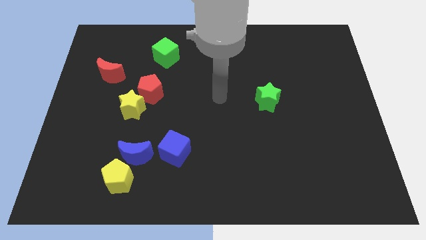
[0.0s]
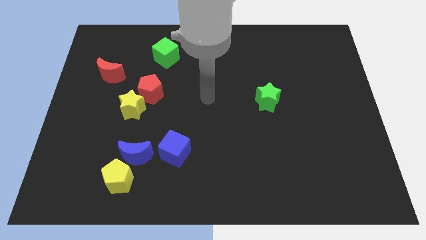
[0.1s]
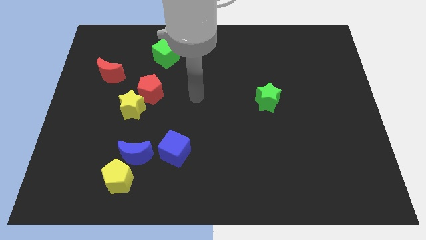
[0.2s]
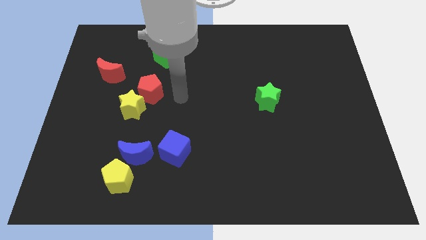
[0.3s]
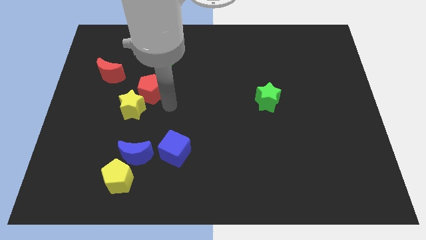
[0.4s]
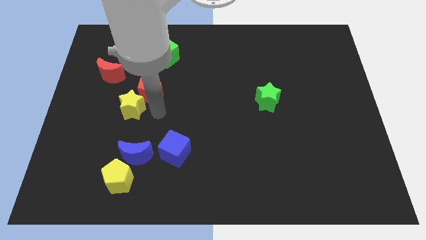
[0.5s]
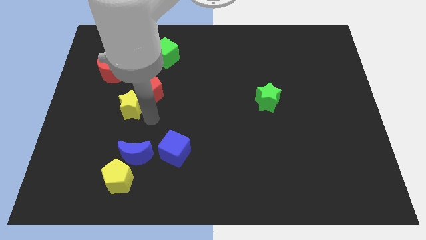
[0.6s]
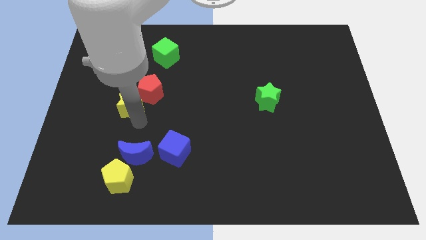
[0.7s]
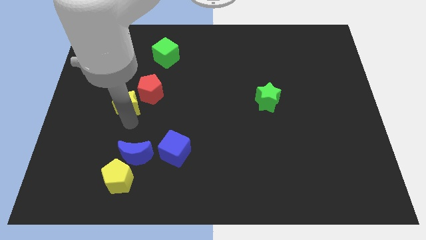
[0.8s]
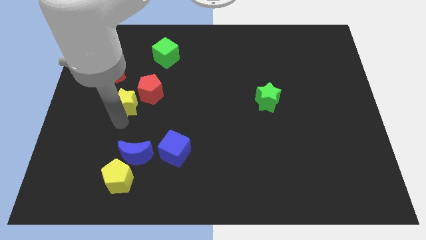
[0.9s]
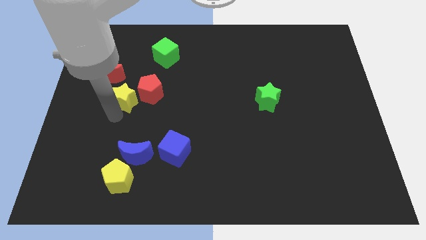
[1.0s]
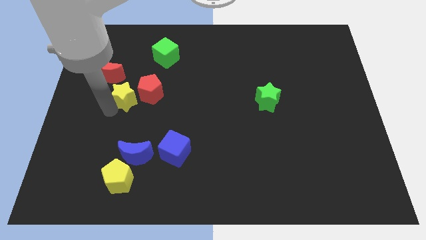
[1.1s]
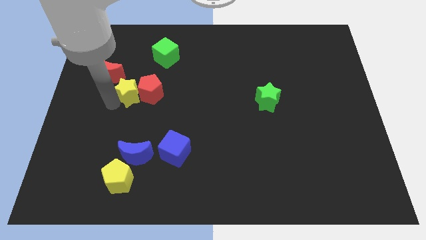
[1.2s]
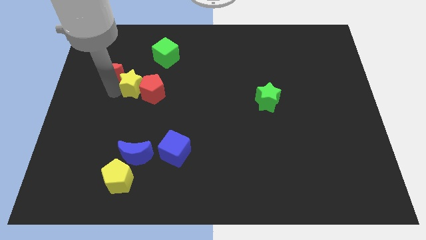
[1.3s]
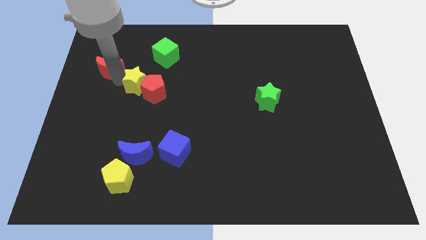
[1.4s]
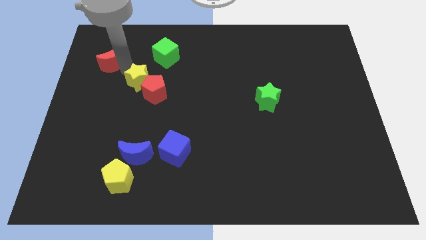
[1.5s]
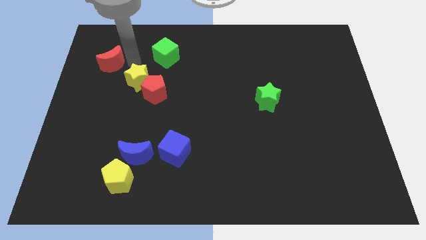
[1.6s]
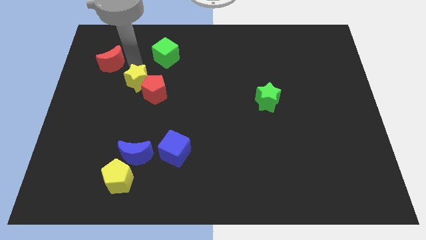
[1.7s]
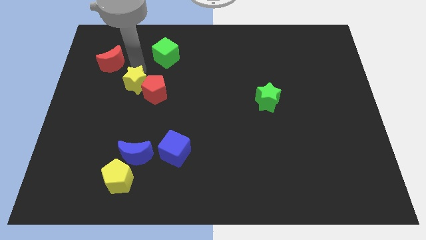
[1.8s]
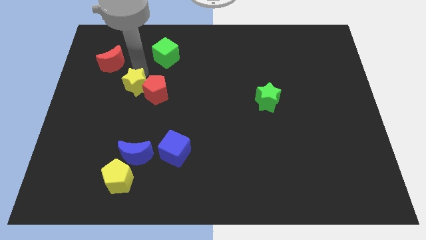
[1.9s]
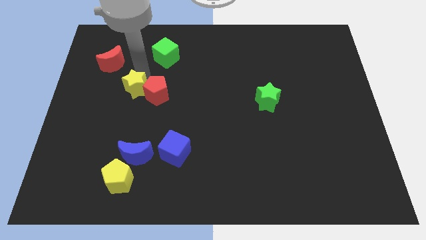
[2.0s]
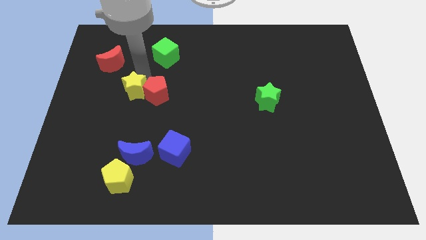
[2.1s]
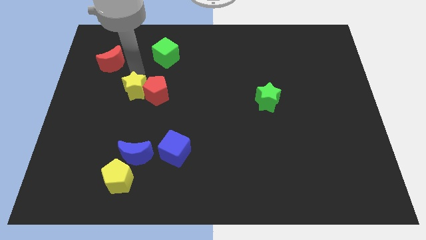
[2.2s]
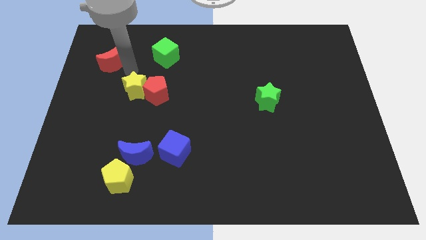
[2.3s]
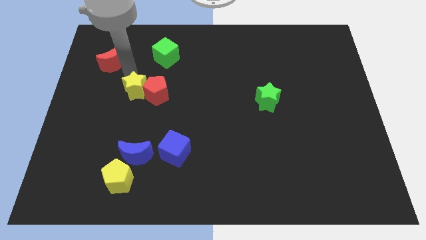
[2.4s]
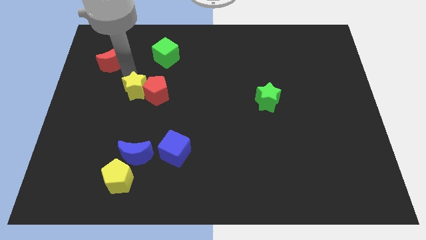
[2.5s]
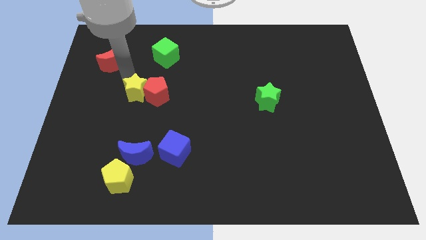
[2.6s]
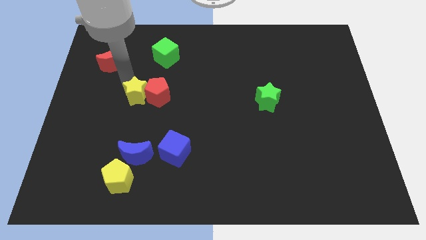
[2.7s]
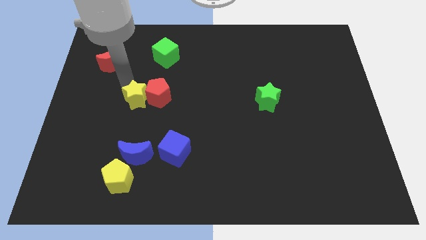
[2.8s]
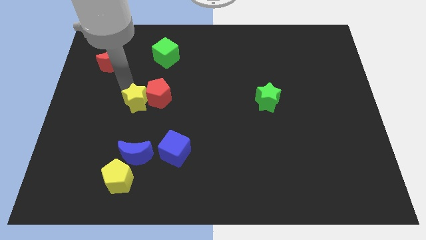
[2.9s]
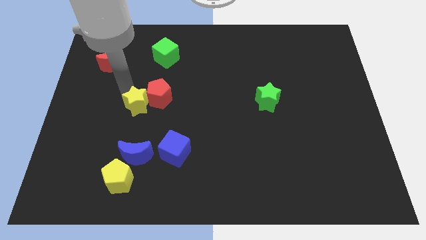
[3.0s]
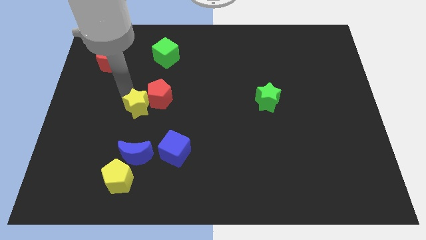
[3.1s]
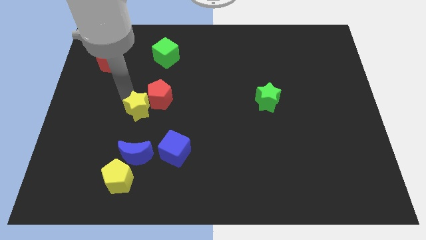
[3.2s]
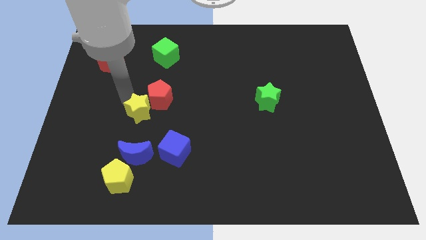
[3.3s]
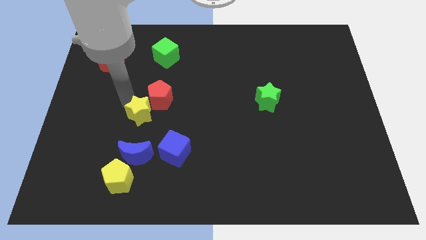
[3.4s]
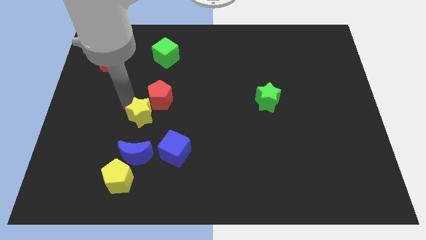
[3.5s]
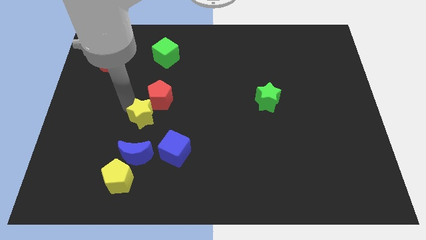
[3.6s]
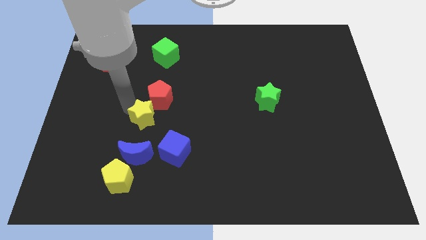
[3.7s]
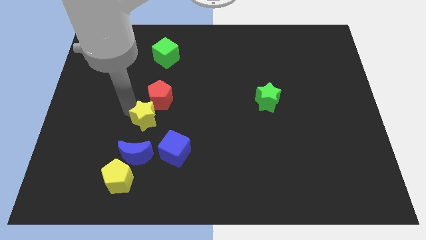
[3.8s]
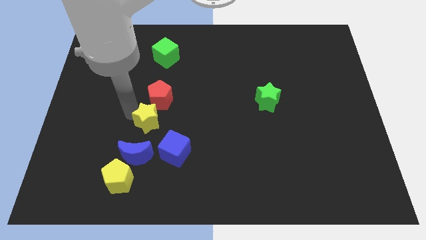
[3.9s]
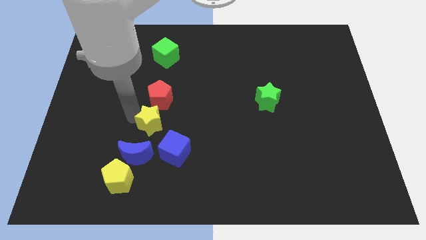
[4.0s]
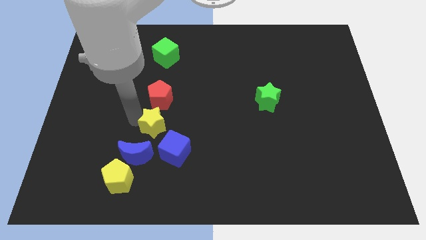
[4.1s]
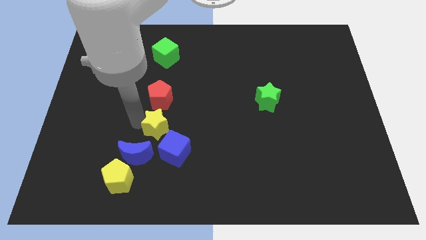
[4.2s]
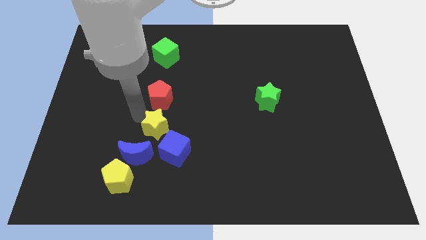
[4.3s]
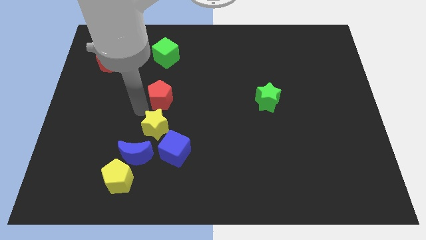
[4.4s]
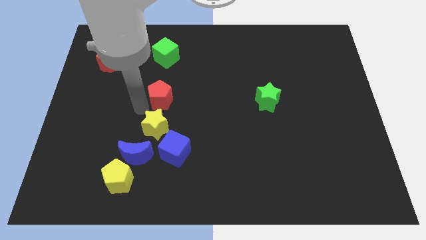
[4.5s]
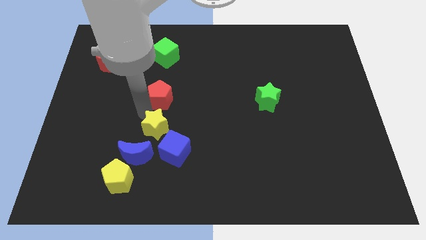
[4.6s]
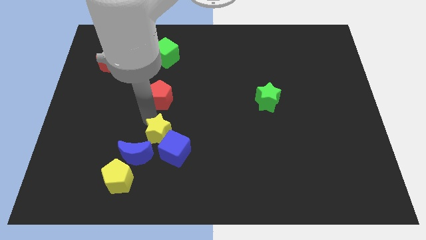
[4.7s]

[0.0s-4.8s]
move the yellow star to the blue cube

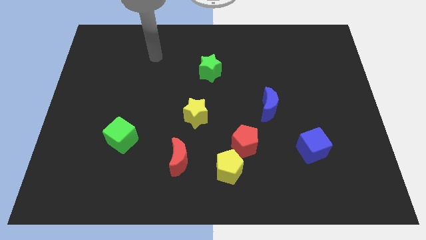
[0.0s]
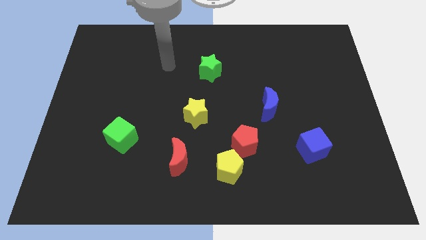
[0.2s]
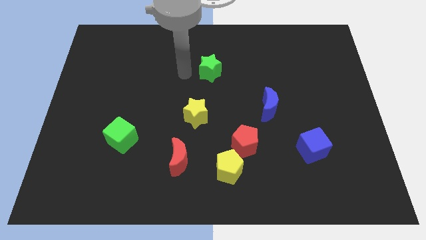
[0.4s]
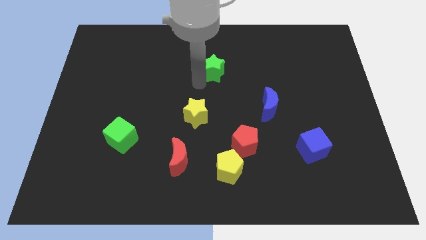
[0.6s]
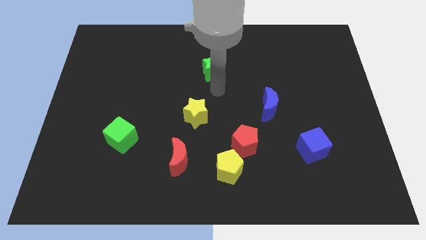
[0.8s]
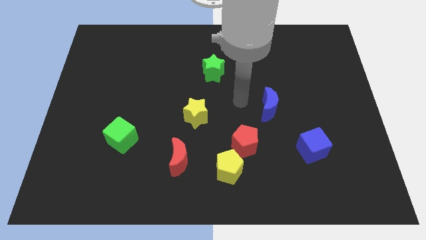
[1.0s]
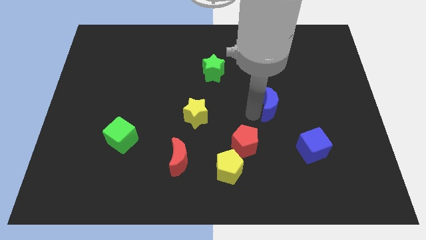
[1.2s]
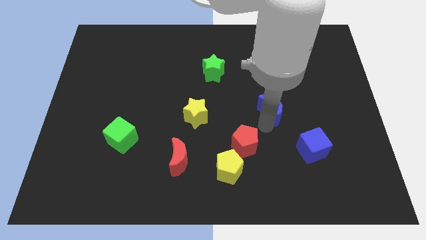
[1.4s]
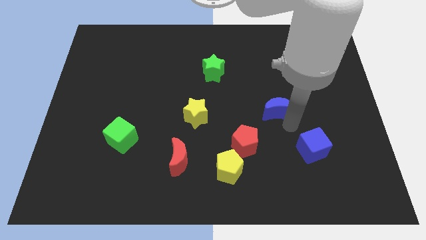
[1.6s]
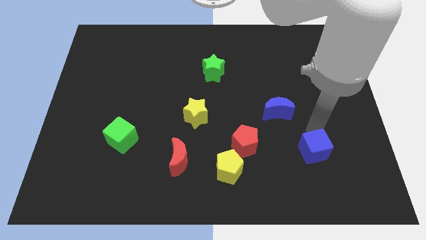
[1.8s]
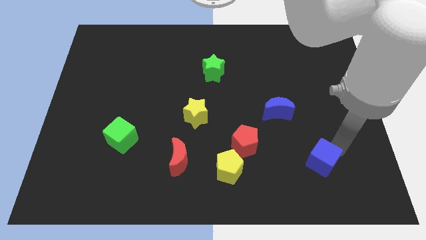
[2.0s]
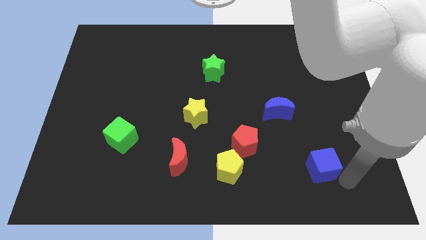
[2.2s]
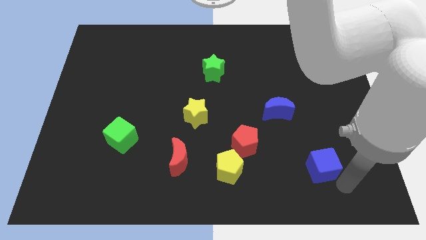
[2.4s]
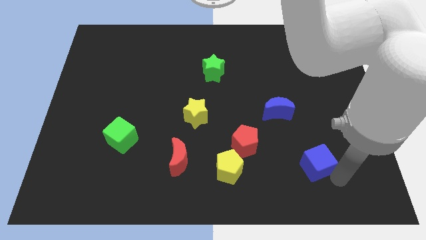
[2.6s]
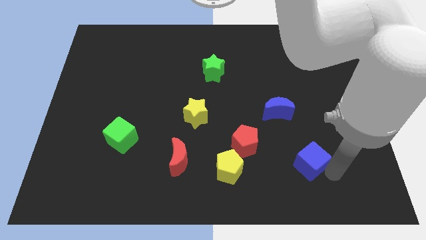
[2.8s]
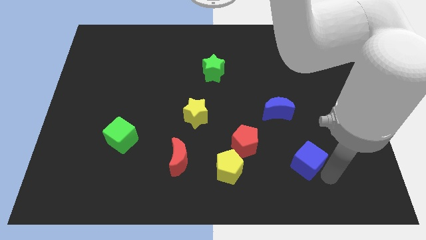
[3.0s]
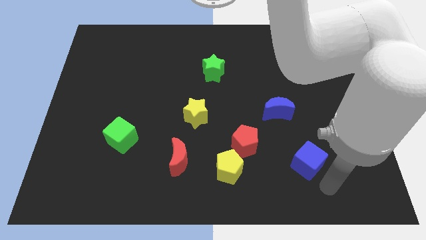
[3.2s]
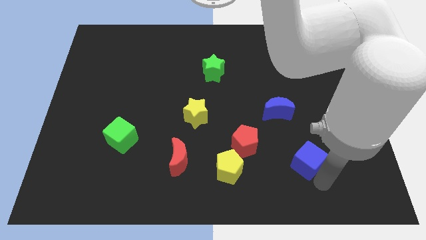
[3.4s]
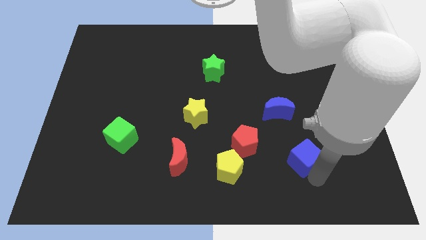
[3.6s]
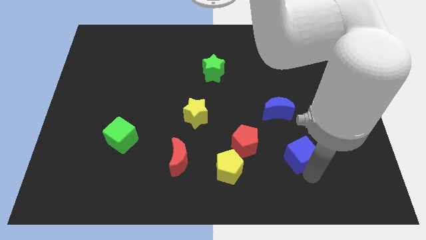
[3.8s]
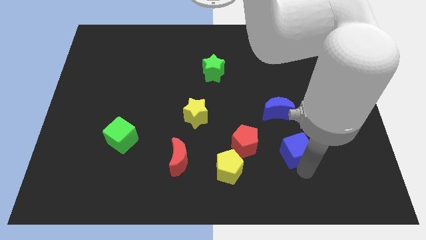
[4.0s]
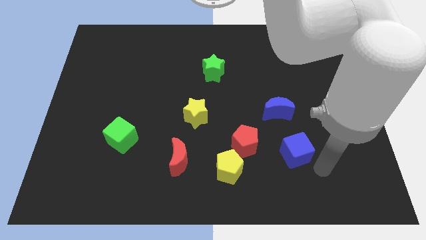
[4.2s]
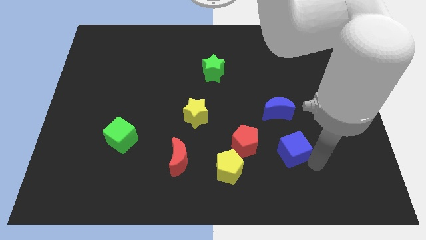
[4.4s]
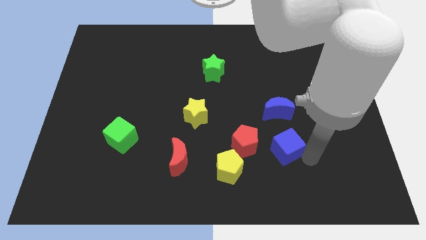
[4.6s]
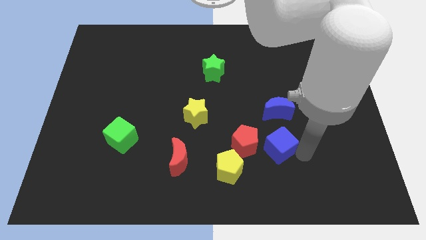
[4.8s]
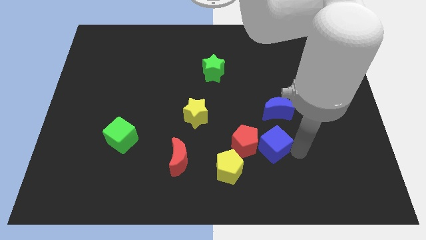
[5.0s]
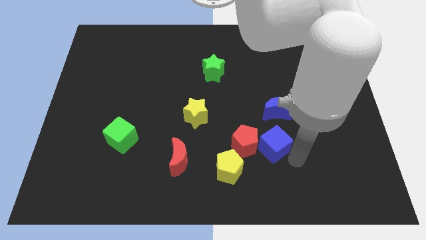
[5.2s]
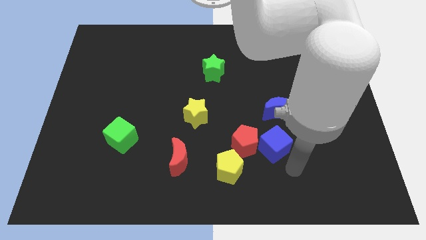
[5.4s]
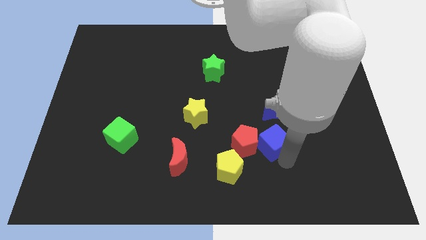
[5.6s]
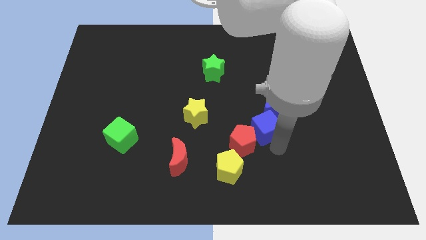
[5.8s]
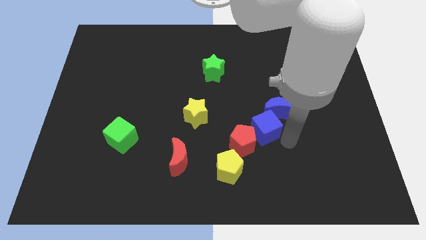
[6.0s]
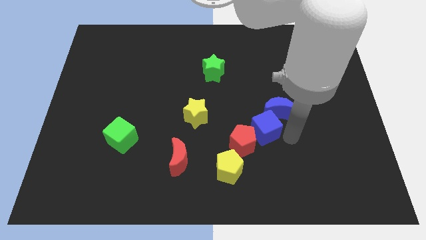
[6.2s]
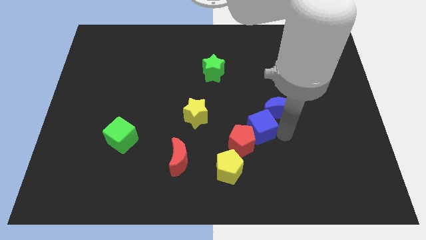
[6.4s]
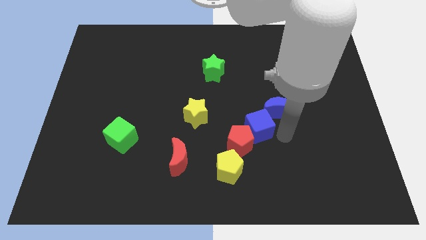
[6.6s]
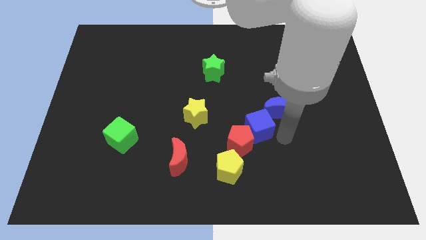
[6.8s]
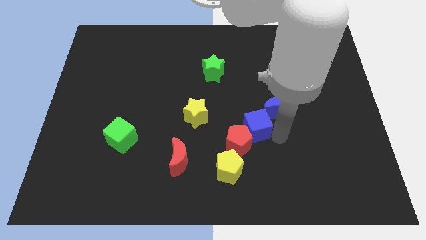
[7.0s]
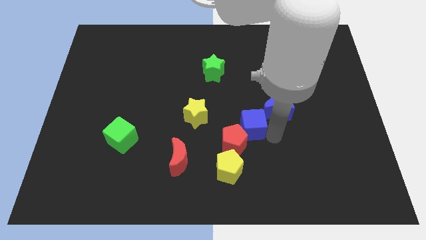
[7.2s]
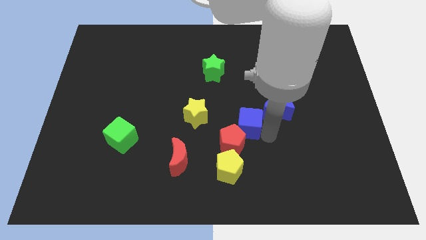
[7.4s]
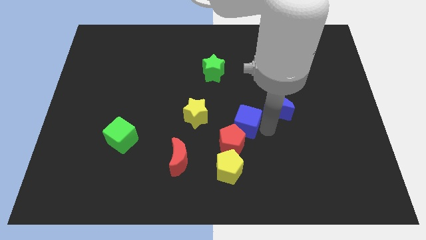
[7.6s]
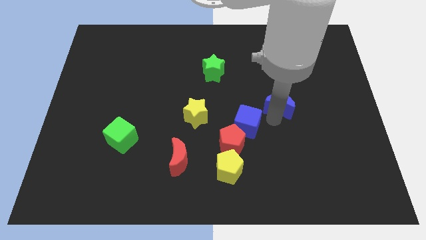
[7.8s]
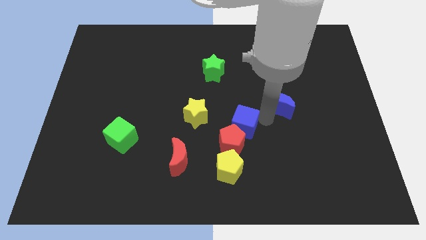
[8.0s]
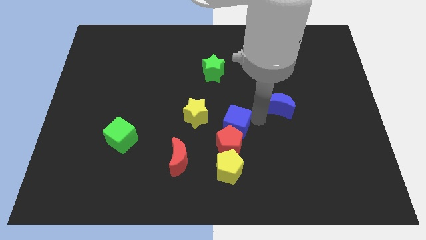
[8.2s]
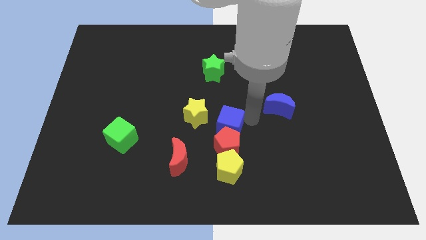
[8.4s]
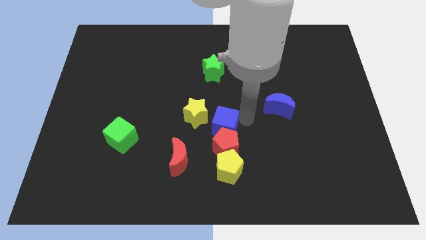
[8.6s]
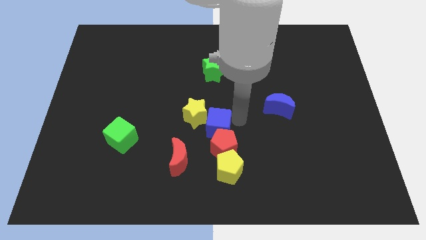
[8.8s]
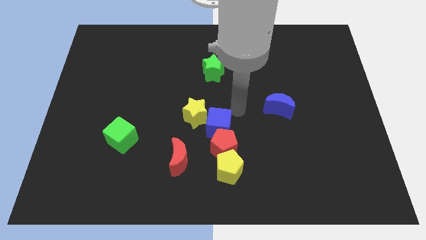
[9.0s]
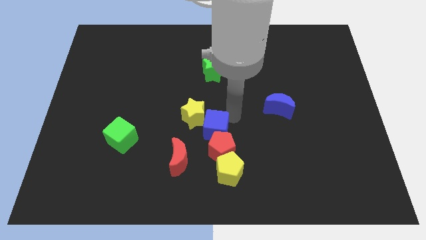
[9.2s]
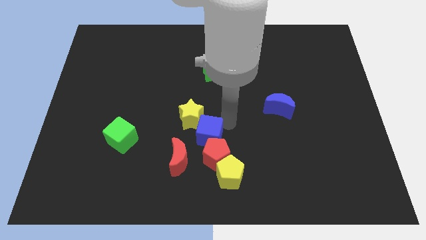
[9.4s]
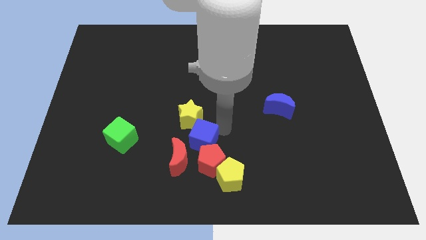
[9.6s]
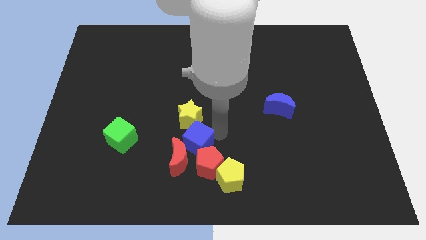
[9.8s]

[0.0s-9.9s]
push the blue cube next to the red moon
